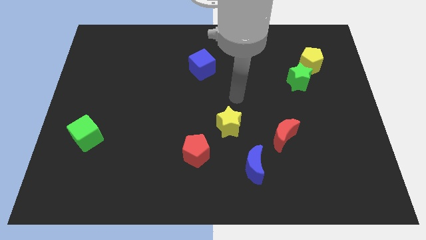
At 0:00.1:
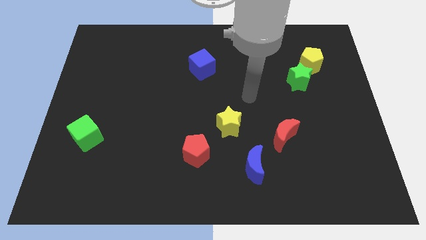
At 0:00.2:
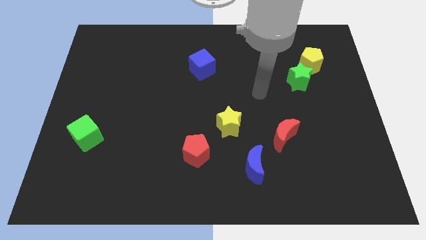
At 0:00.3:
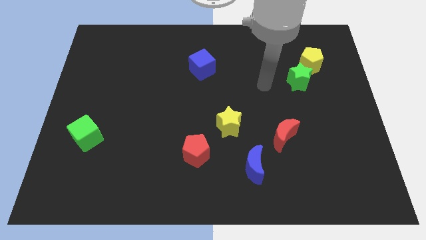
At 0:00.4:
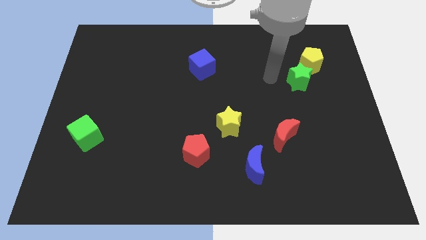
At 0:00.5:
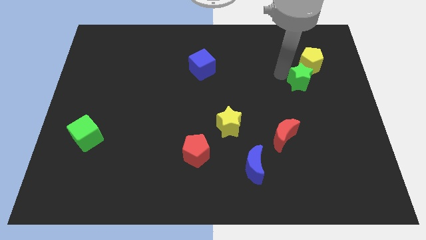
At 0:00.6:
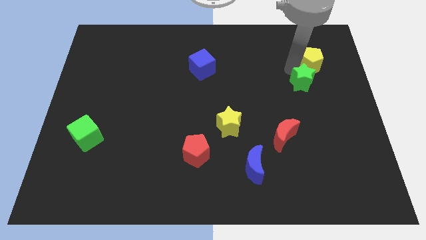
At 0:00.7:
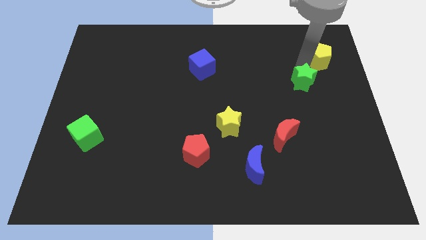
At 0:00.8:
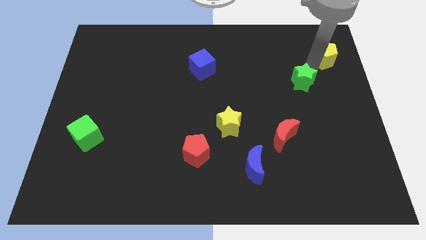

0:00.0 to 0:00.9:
pull the green star apart from the yellow pentagon

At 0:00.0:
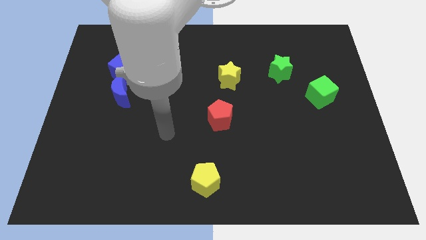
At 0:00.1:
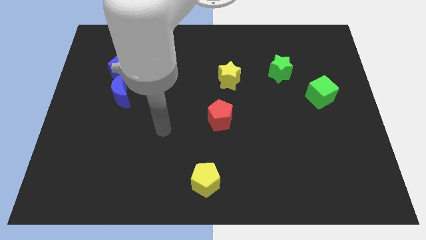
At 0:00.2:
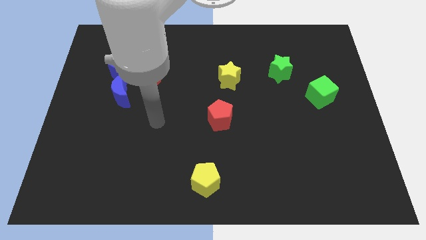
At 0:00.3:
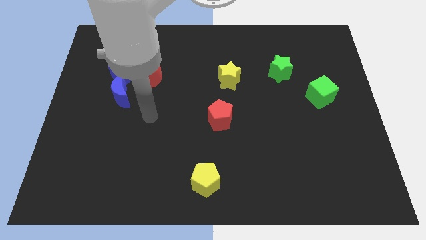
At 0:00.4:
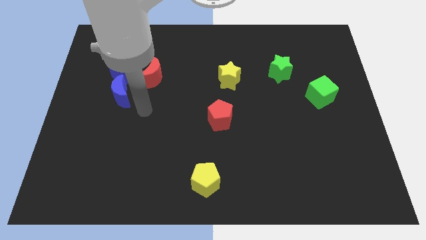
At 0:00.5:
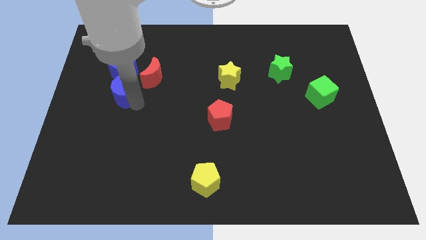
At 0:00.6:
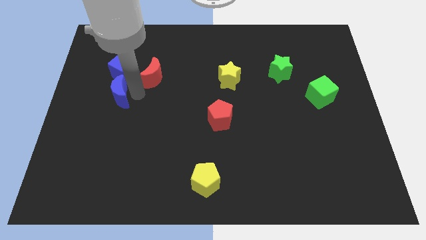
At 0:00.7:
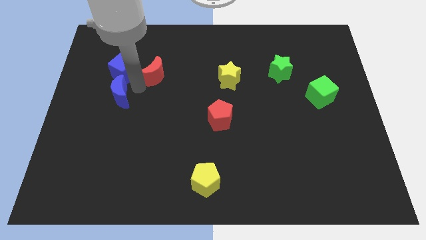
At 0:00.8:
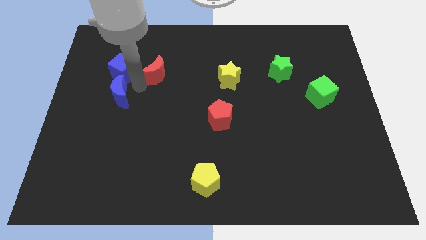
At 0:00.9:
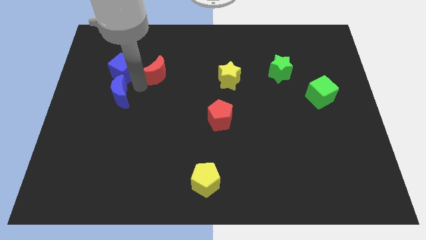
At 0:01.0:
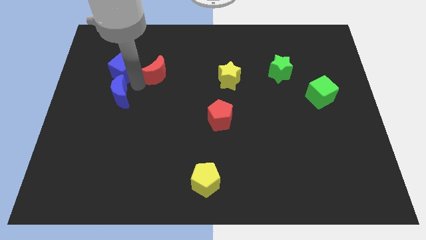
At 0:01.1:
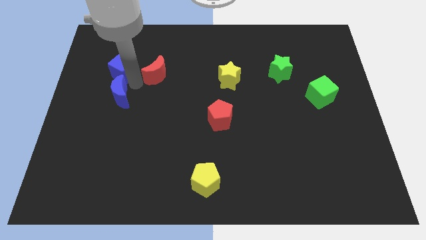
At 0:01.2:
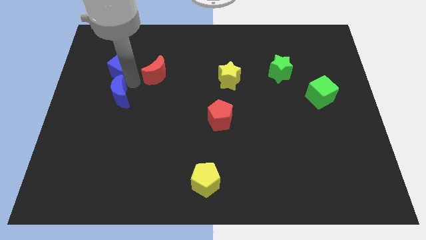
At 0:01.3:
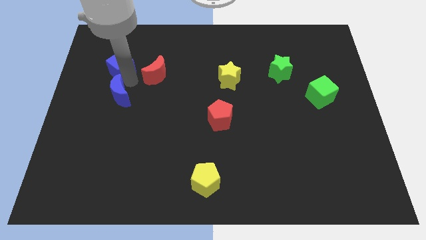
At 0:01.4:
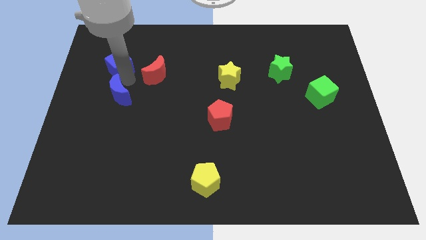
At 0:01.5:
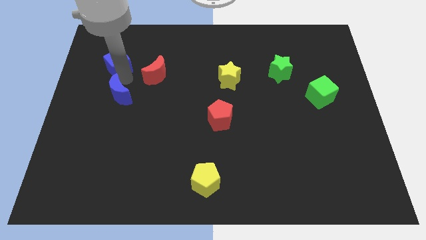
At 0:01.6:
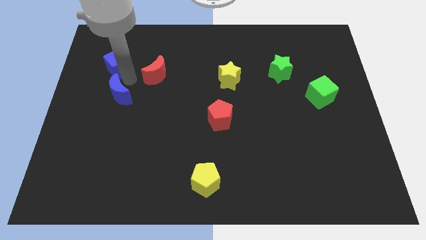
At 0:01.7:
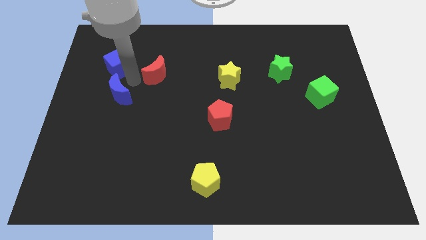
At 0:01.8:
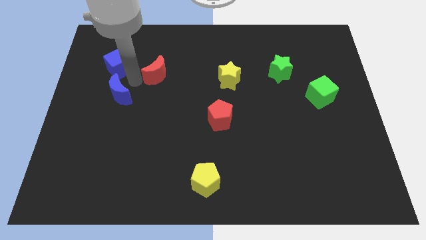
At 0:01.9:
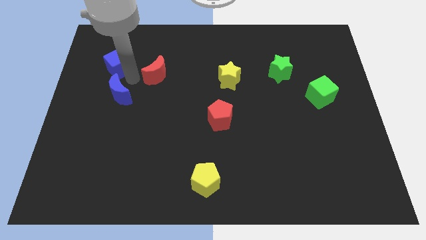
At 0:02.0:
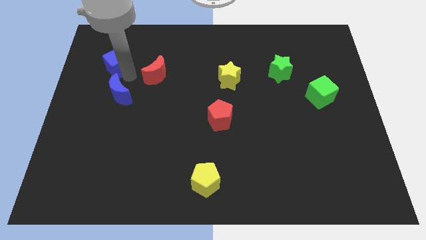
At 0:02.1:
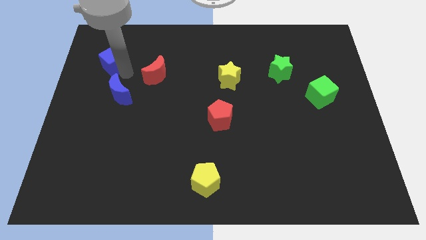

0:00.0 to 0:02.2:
separate the blue cube from the blue moon and red moon

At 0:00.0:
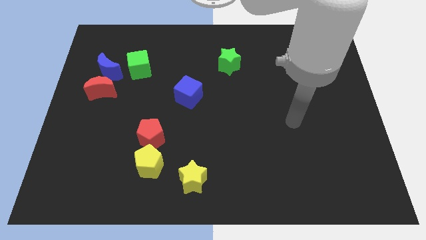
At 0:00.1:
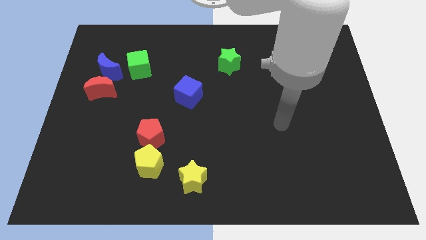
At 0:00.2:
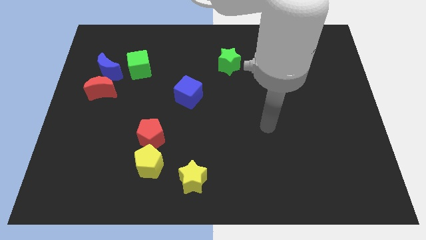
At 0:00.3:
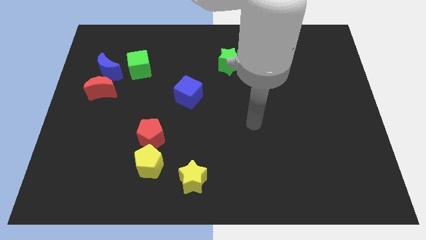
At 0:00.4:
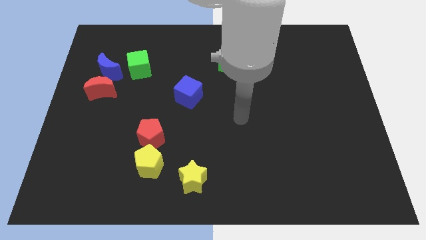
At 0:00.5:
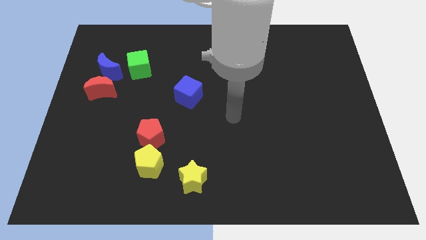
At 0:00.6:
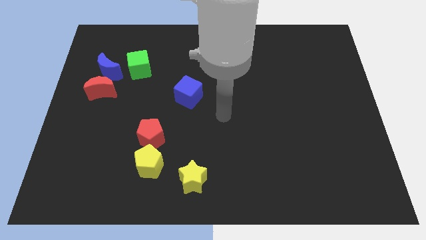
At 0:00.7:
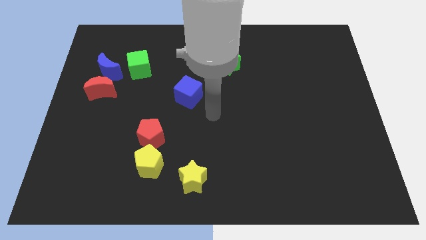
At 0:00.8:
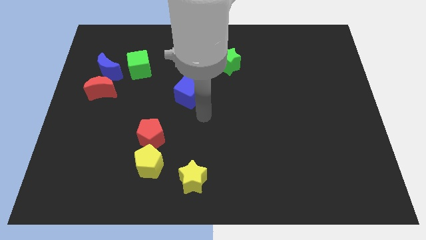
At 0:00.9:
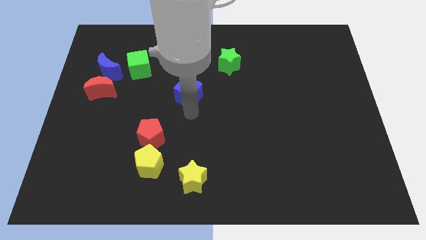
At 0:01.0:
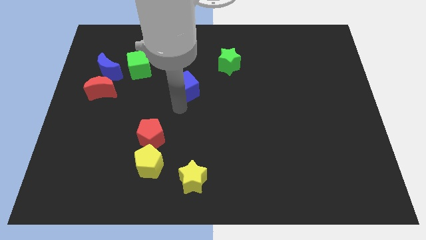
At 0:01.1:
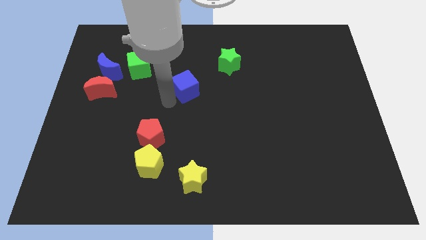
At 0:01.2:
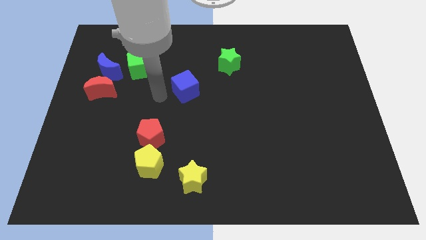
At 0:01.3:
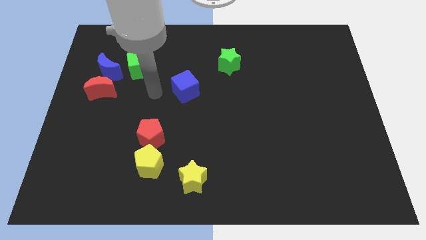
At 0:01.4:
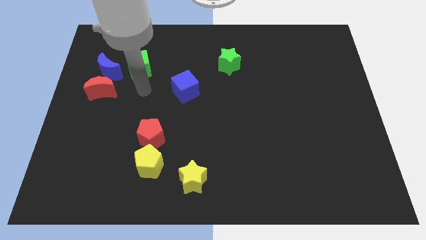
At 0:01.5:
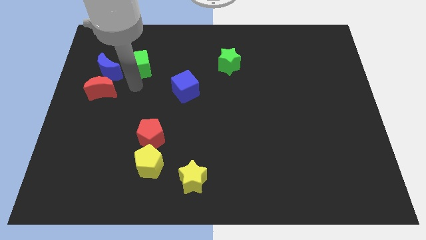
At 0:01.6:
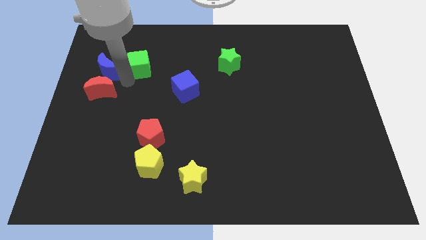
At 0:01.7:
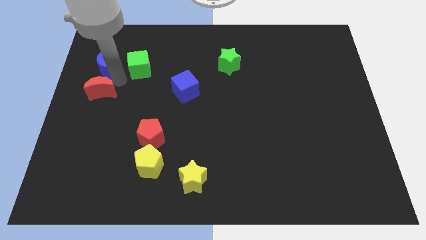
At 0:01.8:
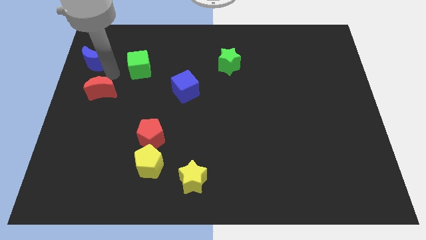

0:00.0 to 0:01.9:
separate the red moon from the blue moon

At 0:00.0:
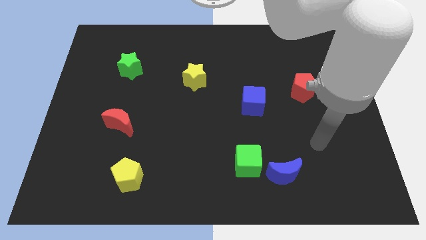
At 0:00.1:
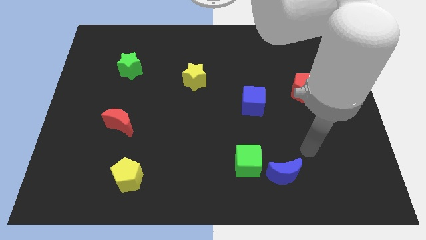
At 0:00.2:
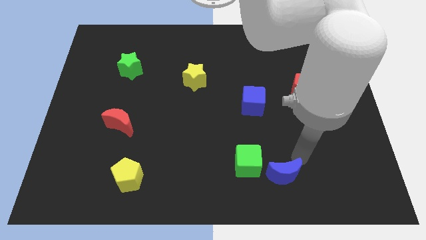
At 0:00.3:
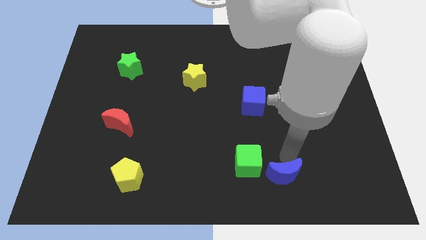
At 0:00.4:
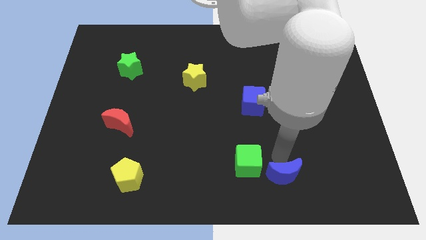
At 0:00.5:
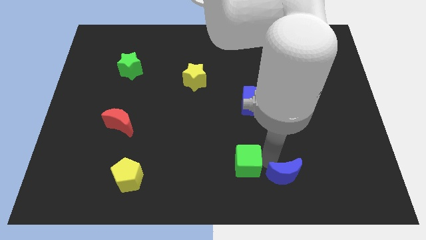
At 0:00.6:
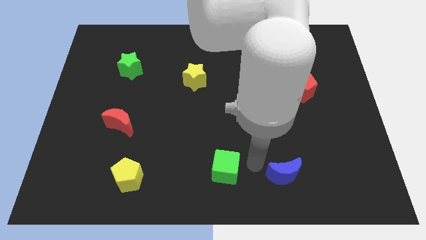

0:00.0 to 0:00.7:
separate the blue moon from the green cube

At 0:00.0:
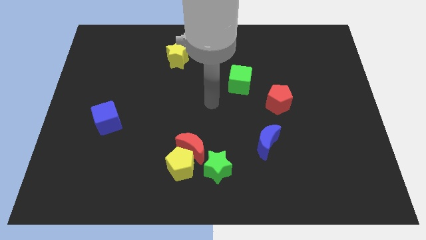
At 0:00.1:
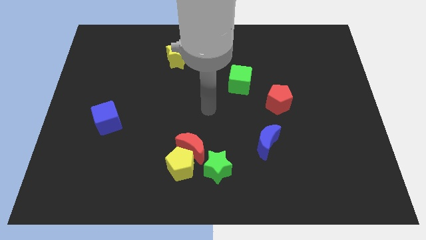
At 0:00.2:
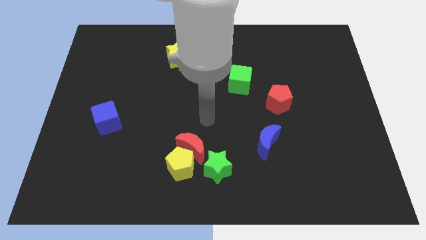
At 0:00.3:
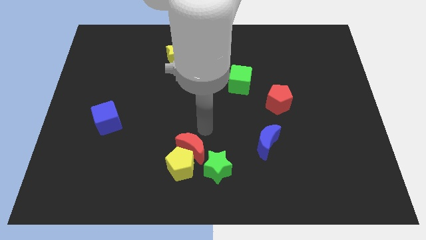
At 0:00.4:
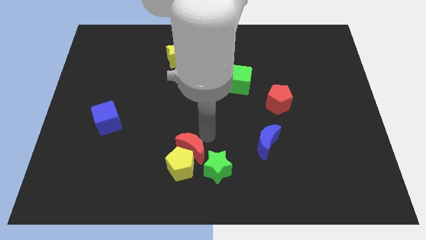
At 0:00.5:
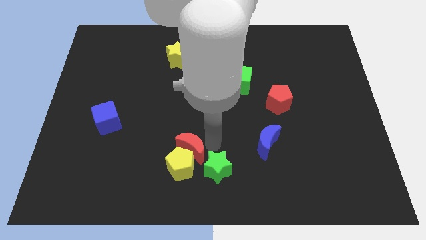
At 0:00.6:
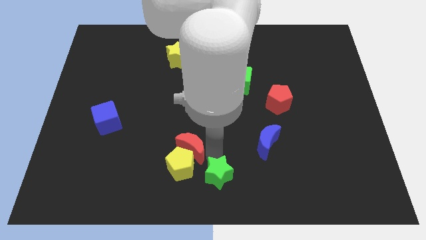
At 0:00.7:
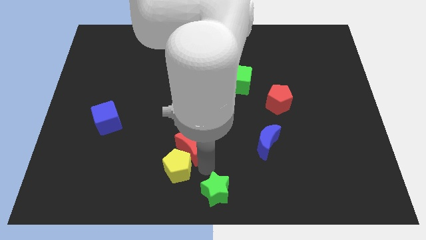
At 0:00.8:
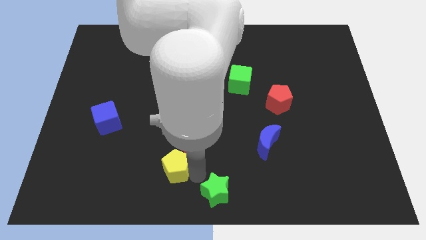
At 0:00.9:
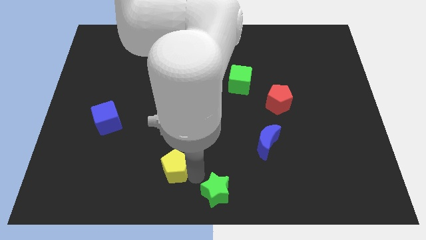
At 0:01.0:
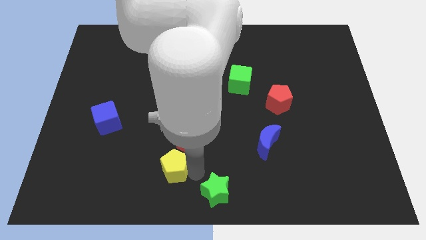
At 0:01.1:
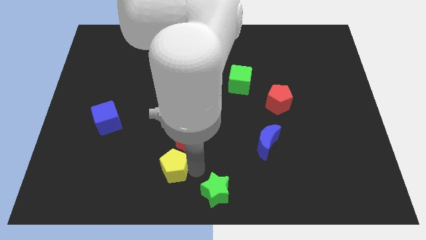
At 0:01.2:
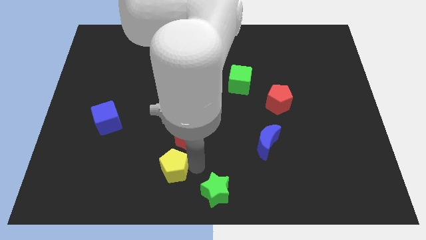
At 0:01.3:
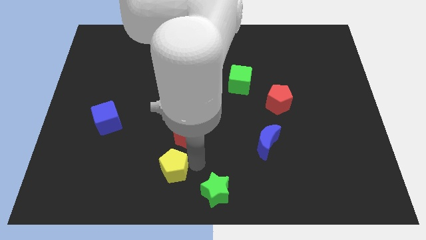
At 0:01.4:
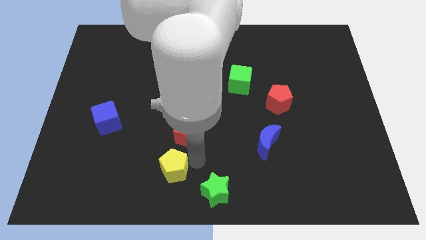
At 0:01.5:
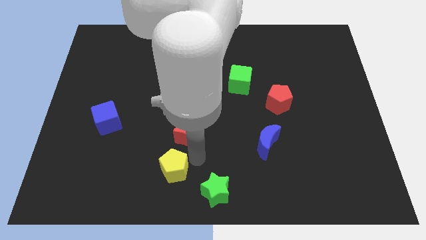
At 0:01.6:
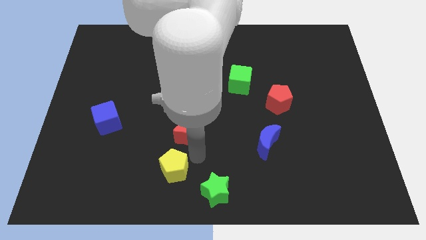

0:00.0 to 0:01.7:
separate the red moon from the yellow pentagon and green star

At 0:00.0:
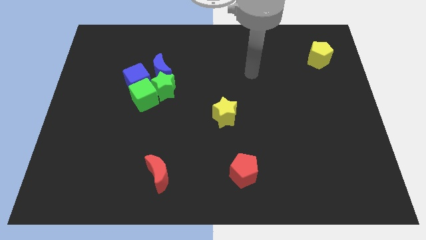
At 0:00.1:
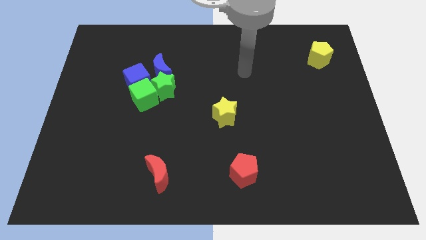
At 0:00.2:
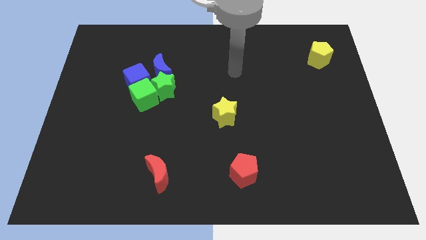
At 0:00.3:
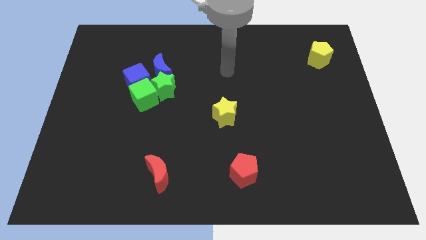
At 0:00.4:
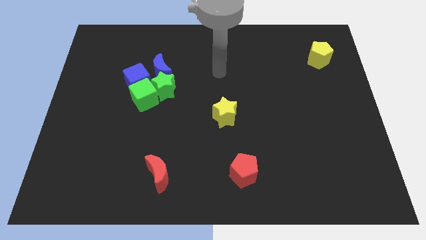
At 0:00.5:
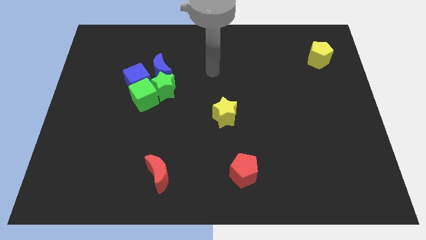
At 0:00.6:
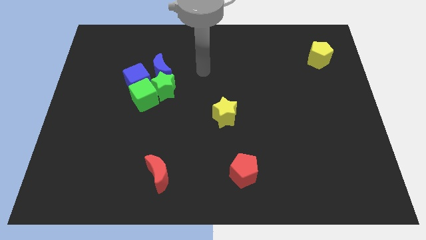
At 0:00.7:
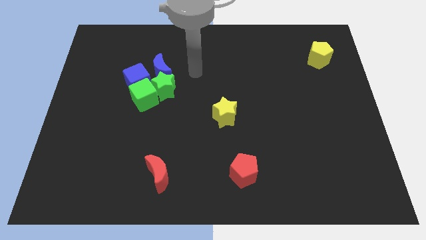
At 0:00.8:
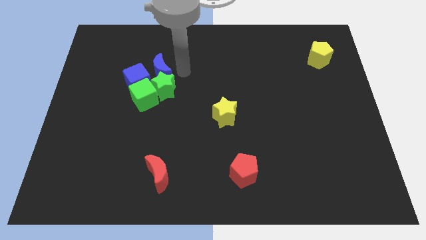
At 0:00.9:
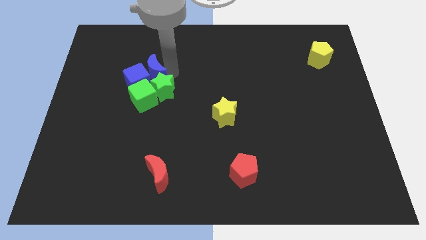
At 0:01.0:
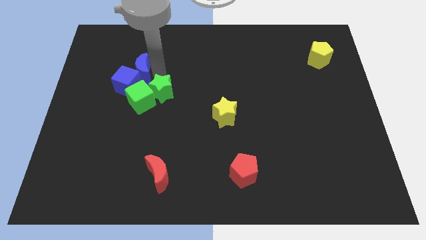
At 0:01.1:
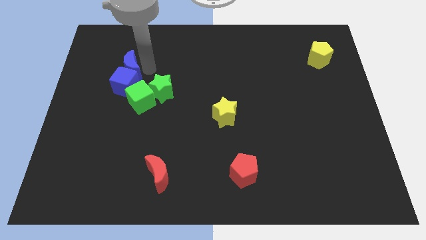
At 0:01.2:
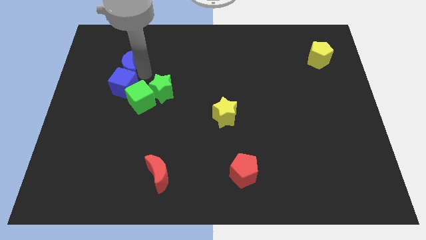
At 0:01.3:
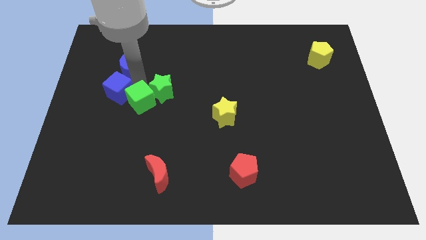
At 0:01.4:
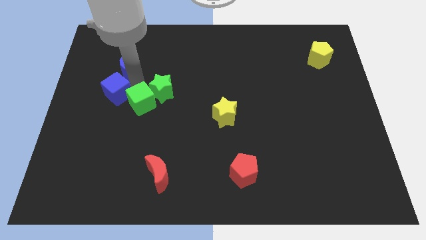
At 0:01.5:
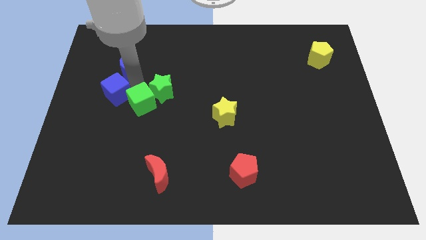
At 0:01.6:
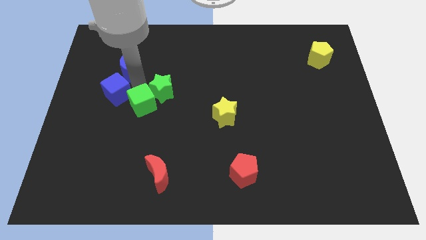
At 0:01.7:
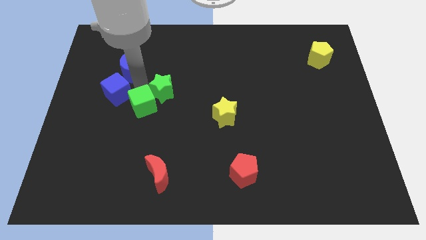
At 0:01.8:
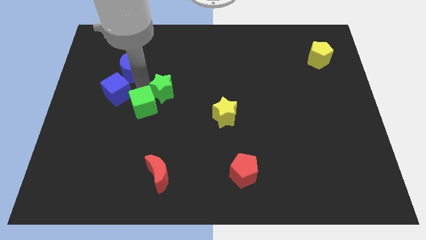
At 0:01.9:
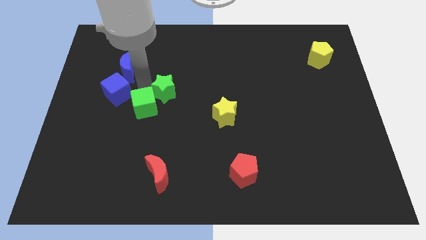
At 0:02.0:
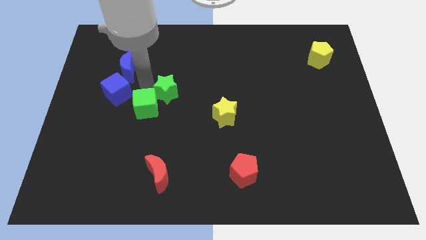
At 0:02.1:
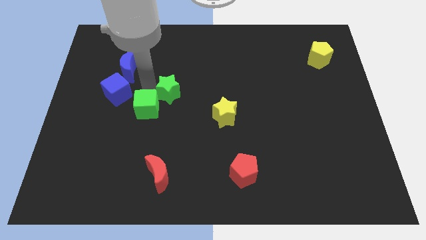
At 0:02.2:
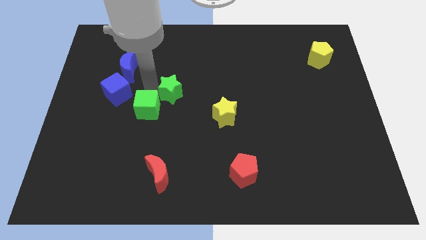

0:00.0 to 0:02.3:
separate the green star from the group of blocks
